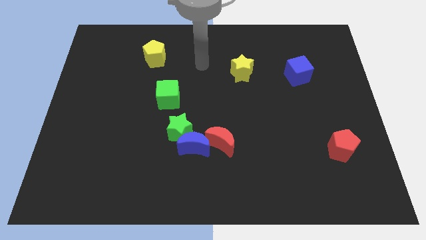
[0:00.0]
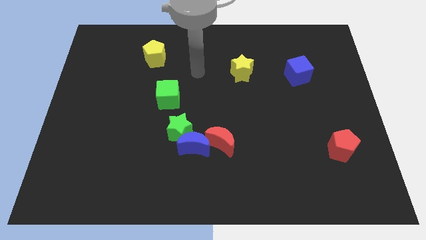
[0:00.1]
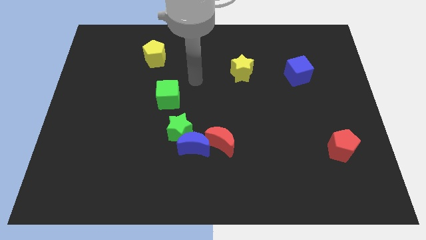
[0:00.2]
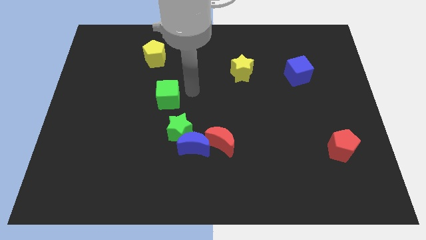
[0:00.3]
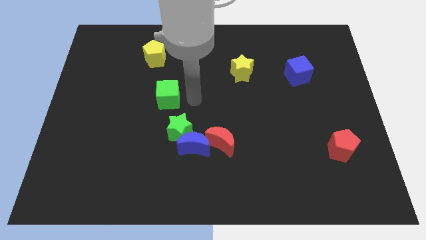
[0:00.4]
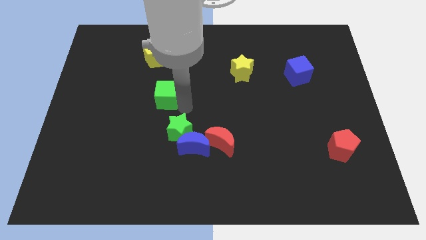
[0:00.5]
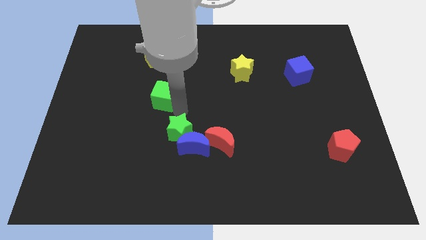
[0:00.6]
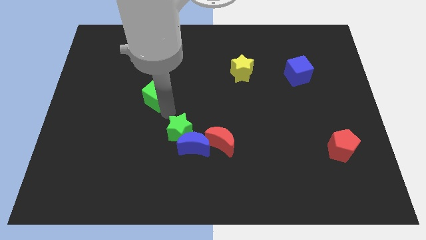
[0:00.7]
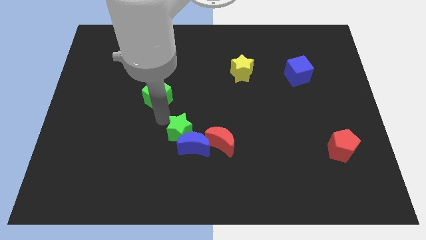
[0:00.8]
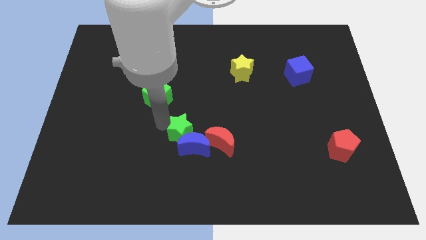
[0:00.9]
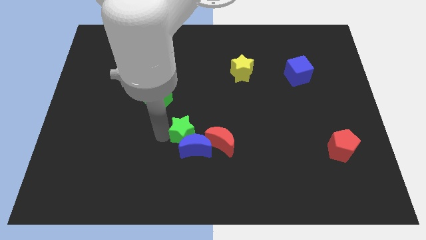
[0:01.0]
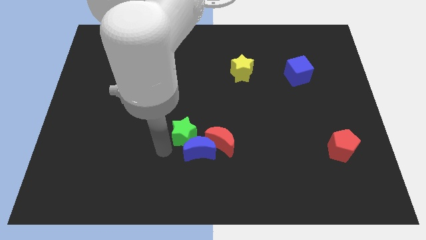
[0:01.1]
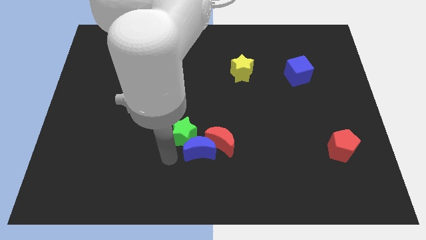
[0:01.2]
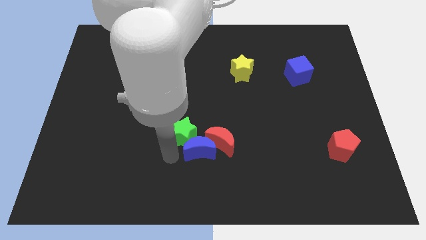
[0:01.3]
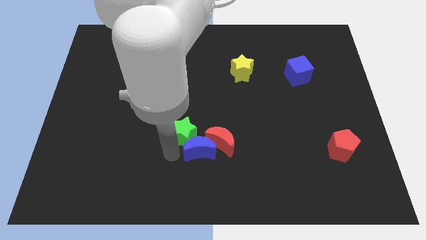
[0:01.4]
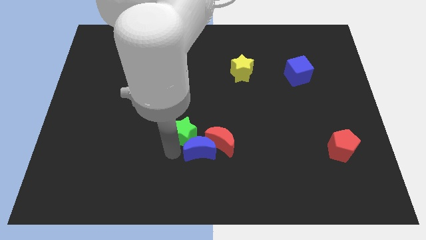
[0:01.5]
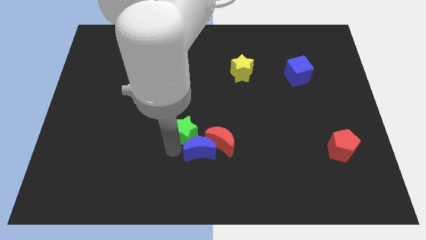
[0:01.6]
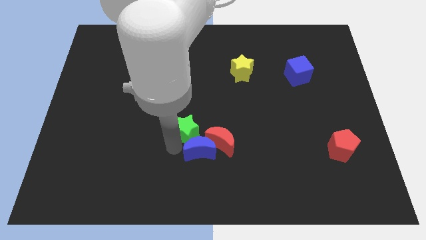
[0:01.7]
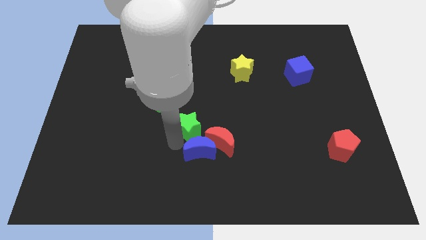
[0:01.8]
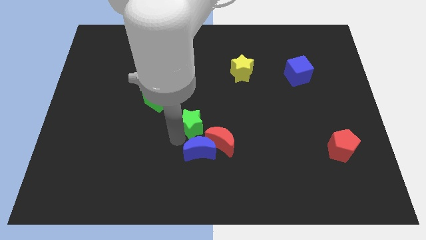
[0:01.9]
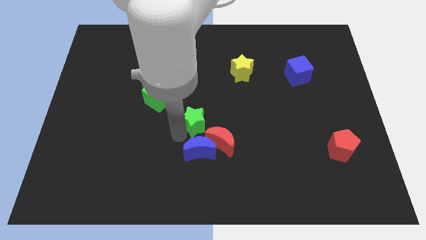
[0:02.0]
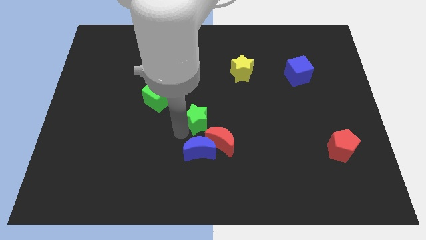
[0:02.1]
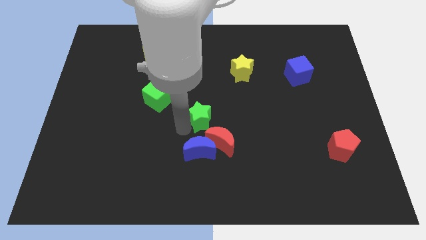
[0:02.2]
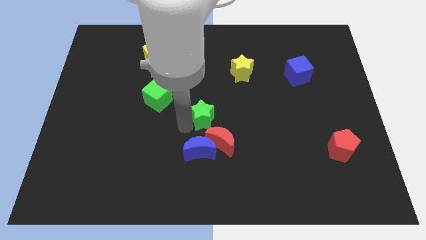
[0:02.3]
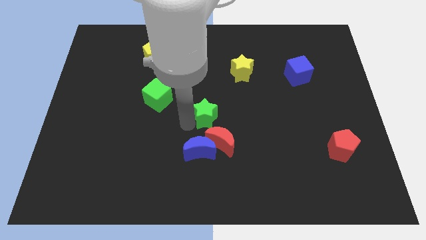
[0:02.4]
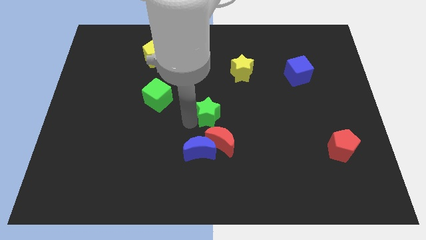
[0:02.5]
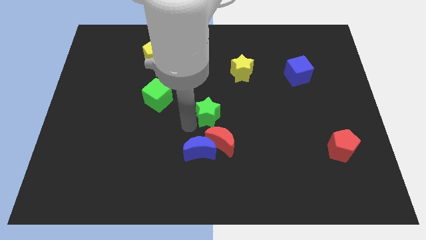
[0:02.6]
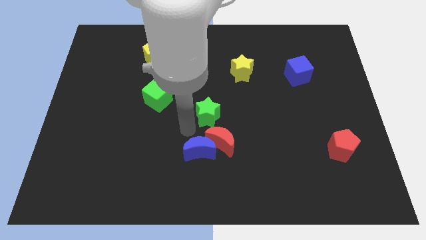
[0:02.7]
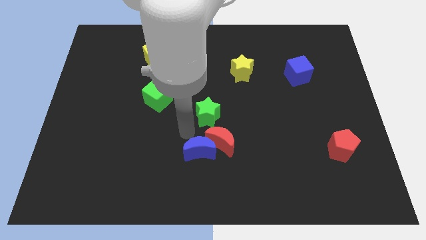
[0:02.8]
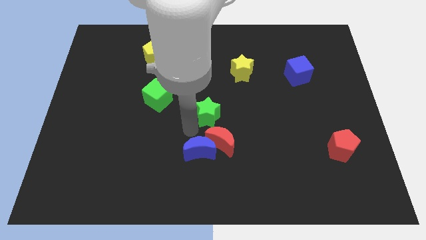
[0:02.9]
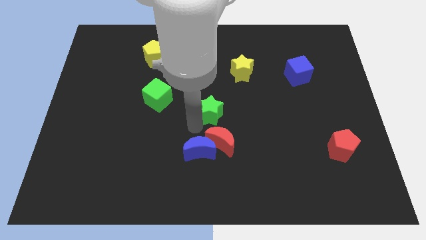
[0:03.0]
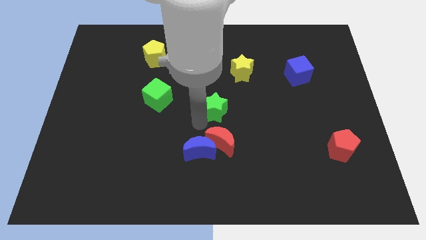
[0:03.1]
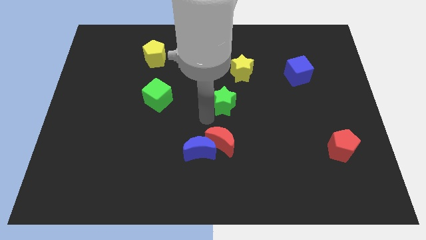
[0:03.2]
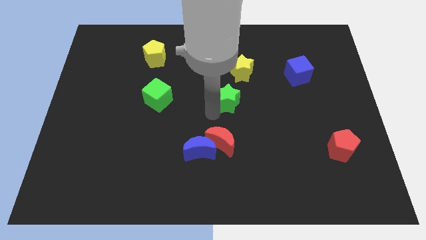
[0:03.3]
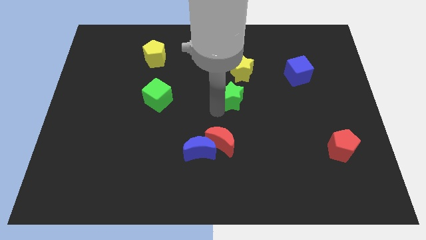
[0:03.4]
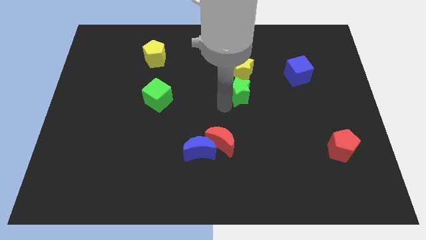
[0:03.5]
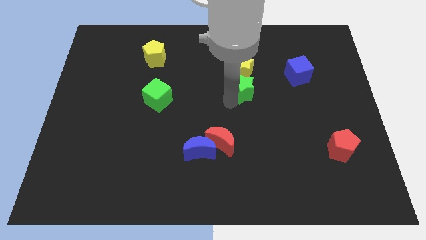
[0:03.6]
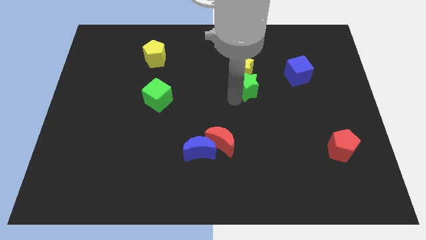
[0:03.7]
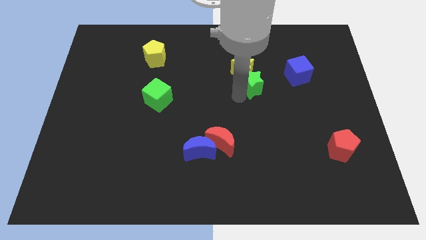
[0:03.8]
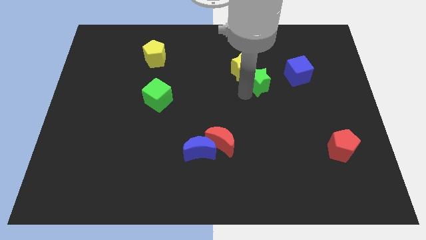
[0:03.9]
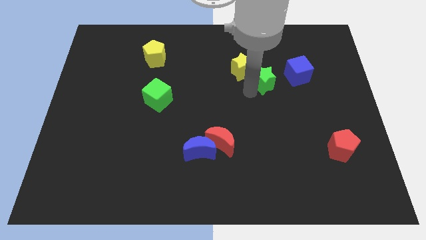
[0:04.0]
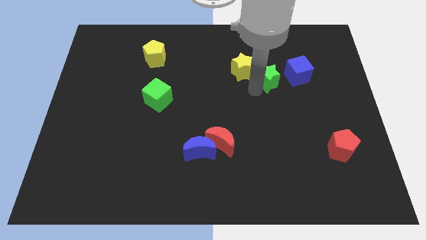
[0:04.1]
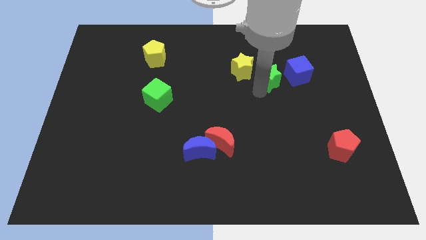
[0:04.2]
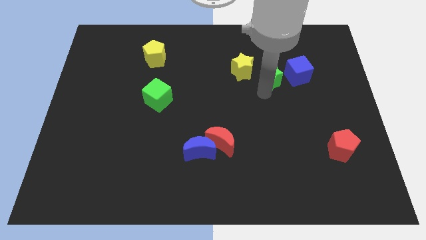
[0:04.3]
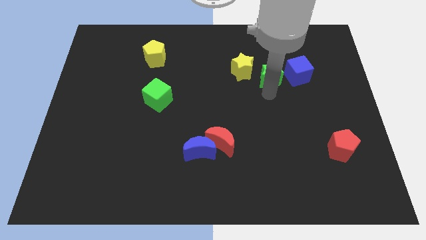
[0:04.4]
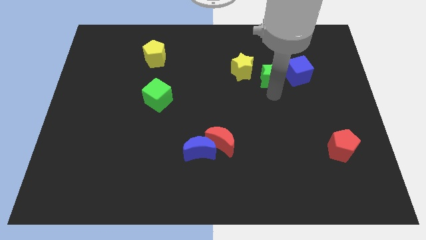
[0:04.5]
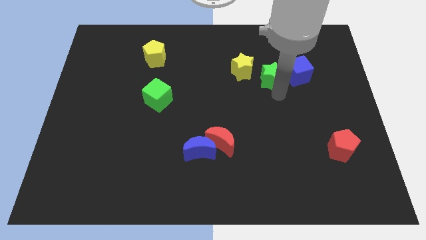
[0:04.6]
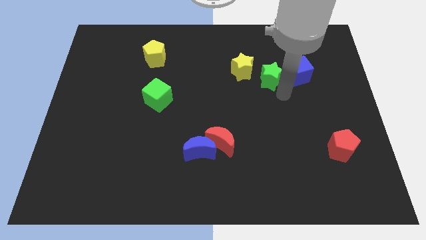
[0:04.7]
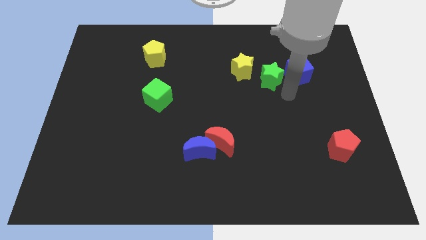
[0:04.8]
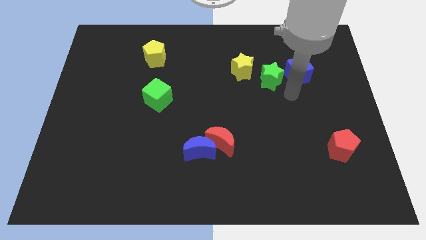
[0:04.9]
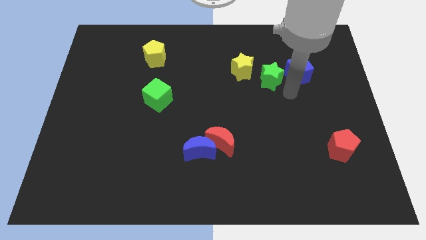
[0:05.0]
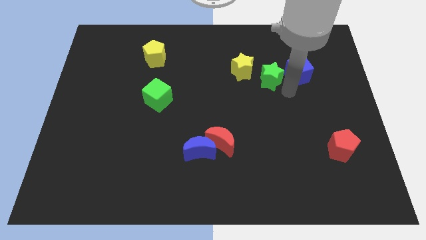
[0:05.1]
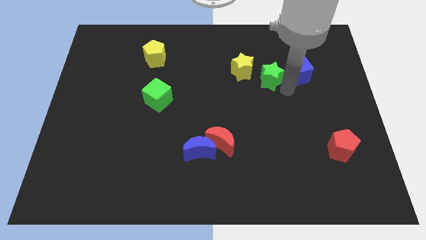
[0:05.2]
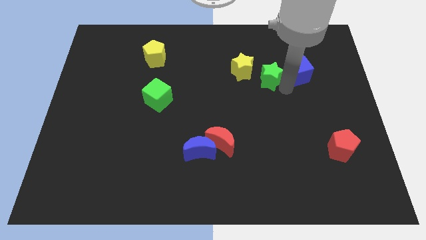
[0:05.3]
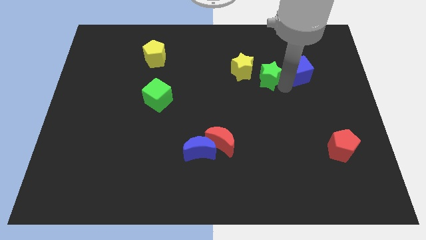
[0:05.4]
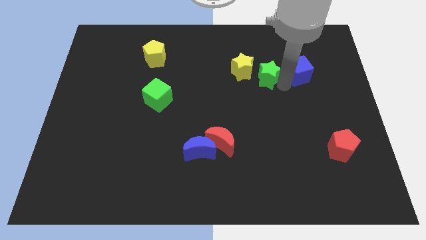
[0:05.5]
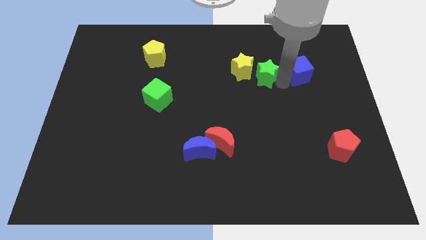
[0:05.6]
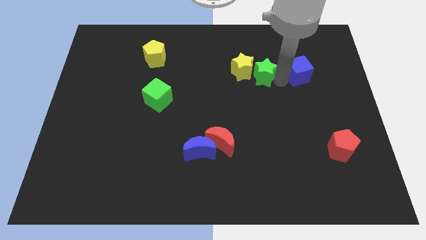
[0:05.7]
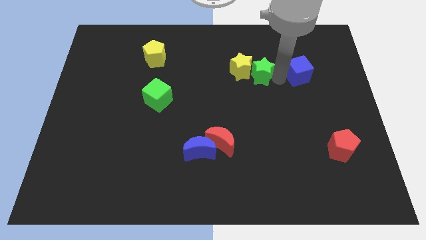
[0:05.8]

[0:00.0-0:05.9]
put the green star diagonally up and to the right of the yellow star

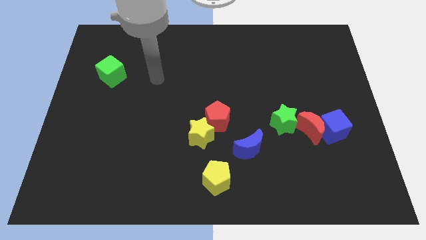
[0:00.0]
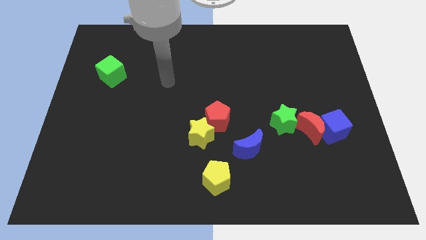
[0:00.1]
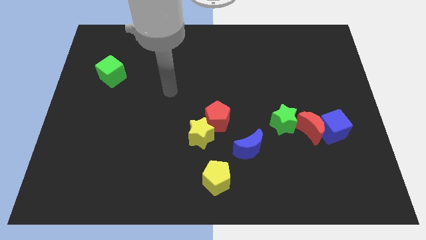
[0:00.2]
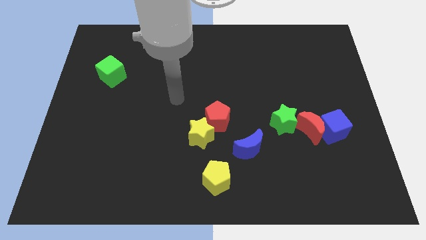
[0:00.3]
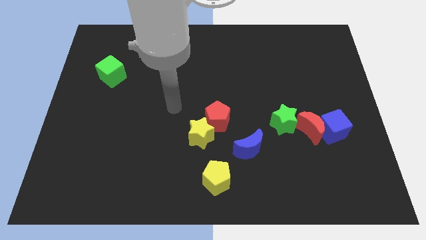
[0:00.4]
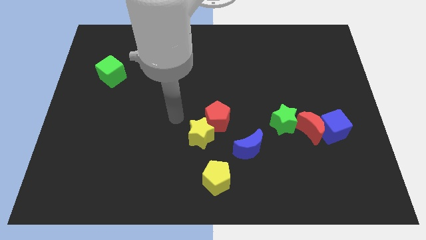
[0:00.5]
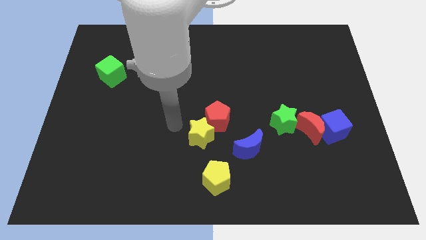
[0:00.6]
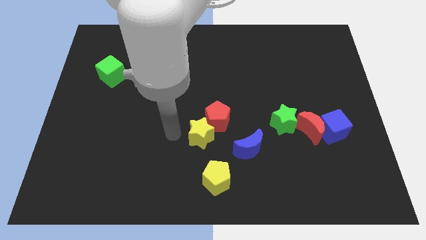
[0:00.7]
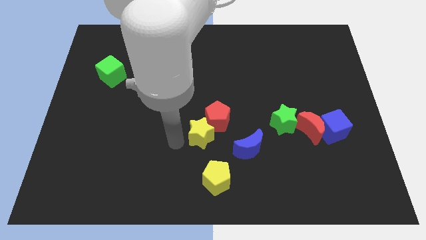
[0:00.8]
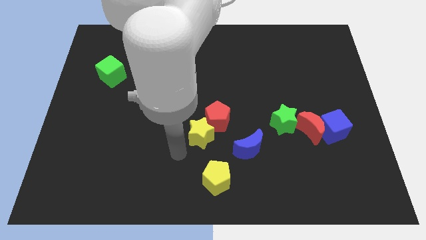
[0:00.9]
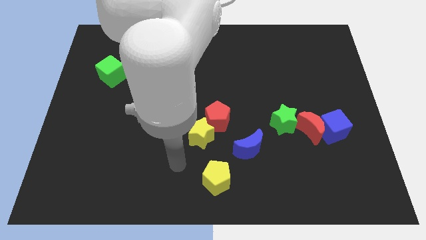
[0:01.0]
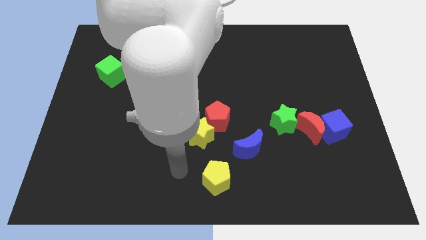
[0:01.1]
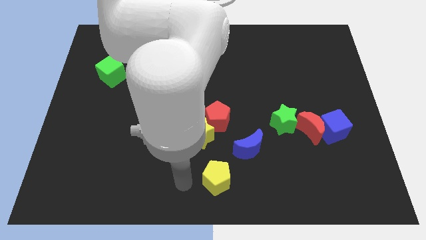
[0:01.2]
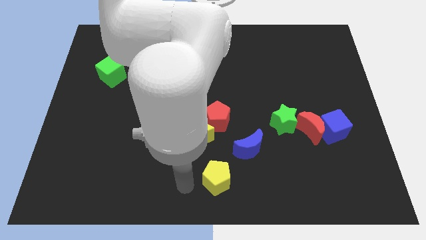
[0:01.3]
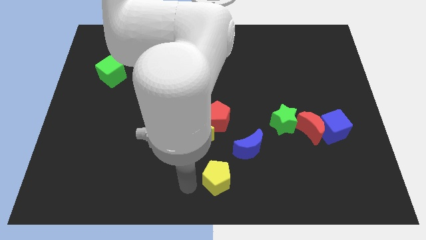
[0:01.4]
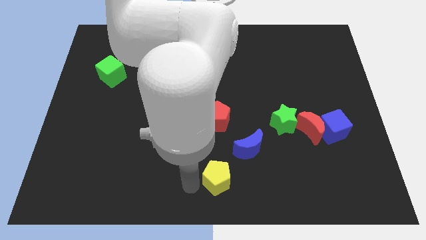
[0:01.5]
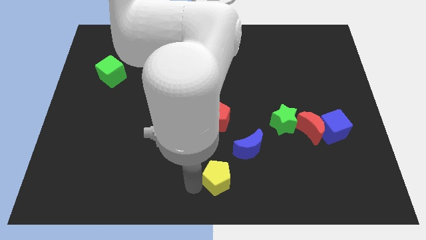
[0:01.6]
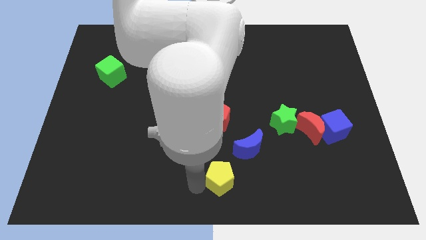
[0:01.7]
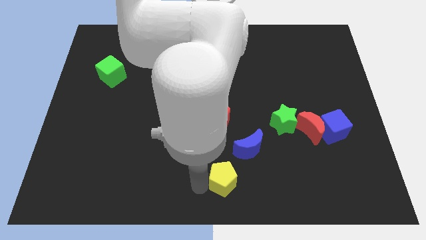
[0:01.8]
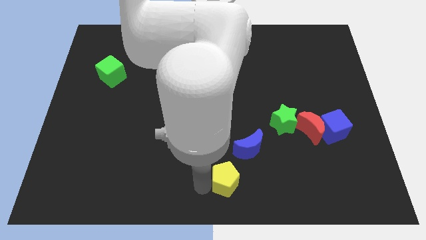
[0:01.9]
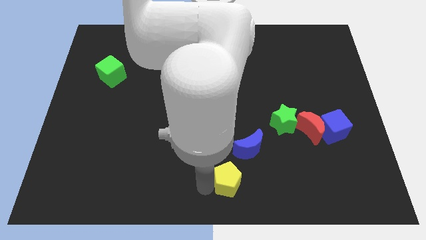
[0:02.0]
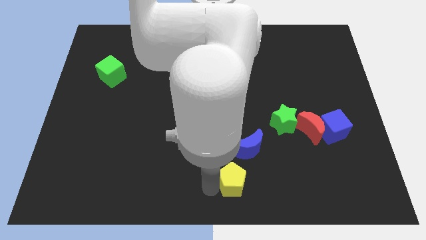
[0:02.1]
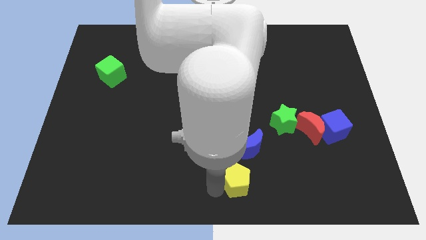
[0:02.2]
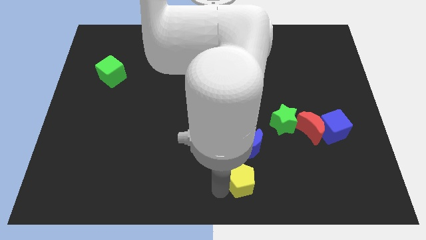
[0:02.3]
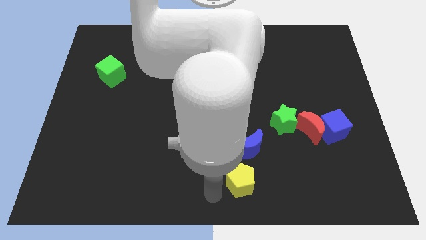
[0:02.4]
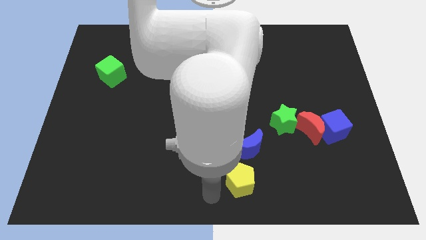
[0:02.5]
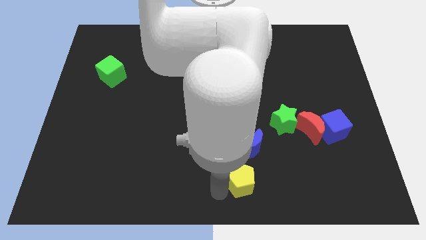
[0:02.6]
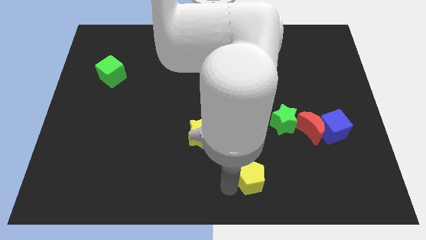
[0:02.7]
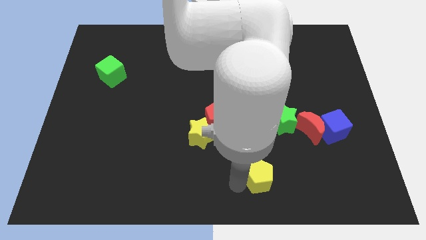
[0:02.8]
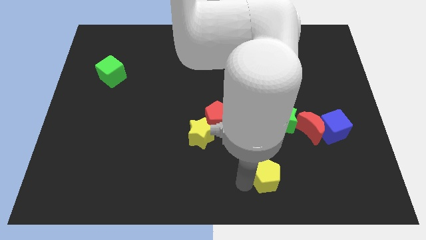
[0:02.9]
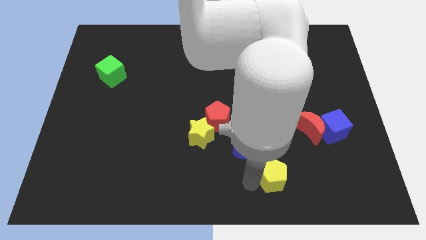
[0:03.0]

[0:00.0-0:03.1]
move the yellow pentagon below the green star
